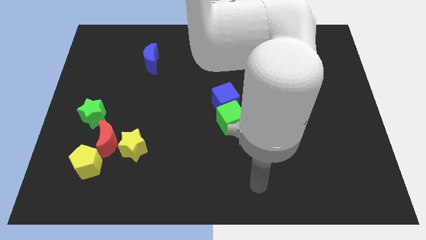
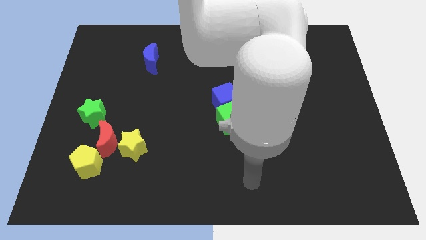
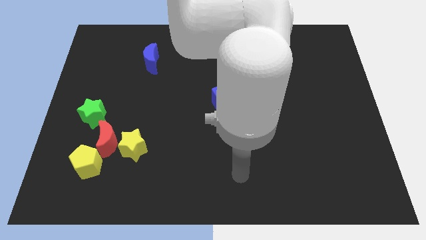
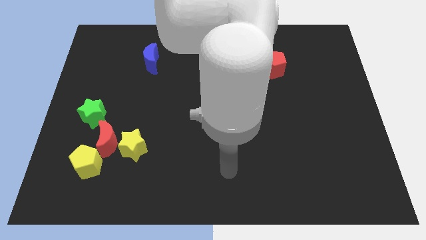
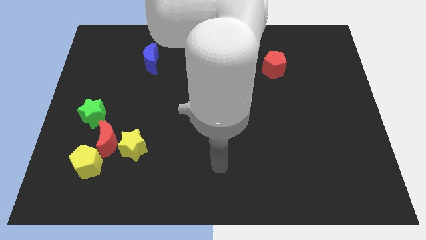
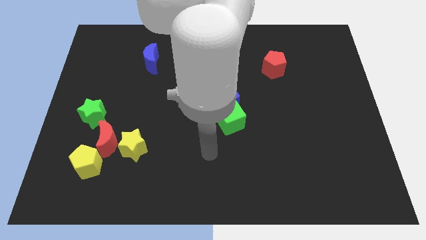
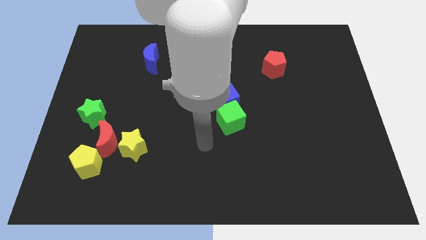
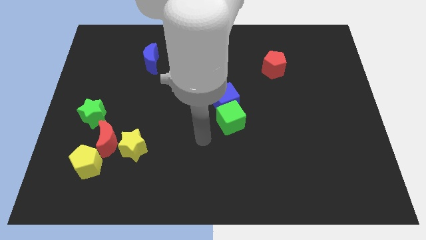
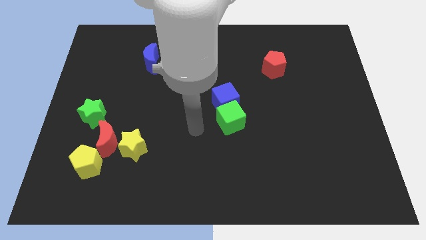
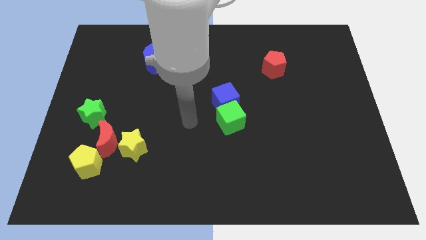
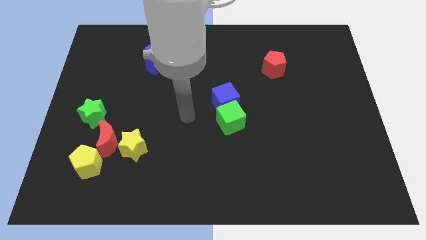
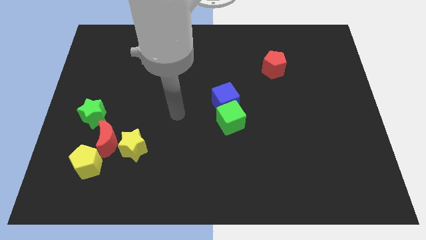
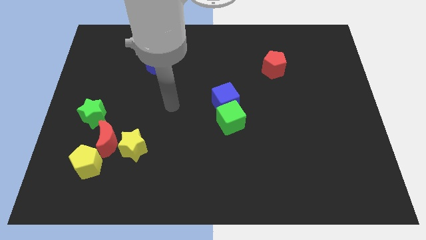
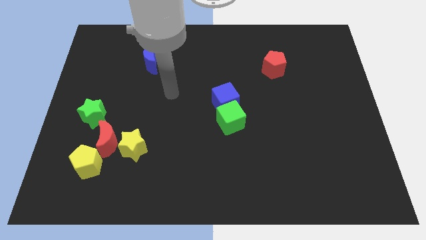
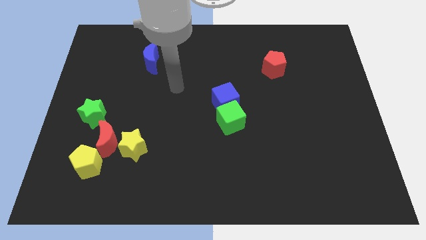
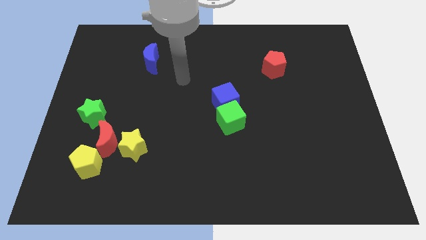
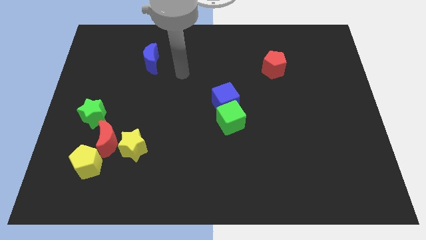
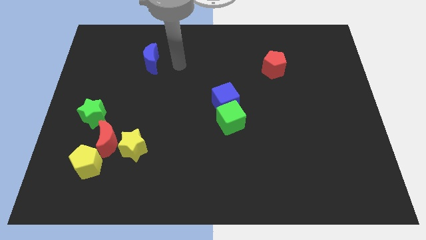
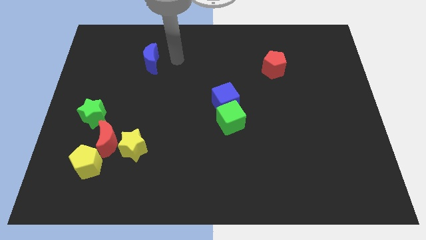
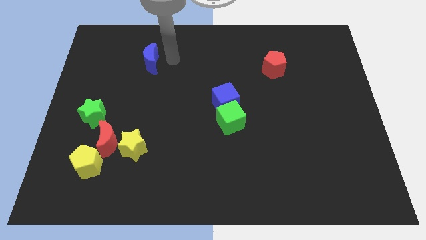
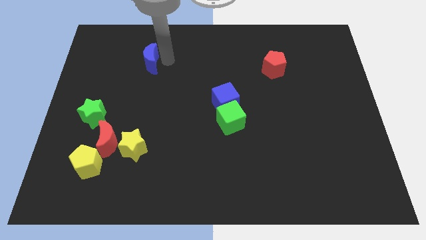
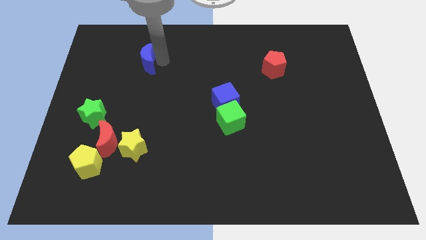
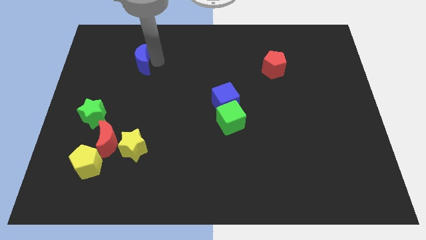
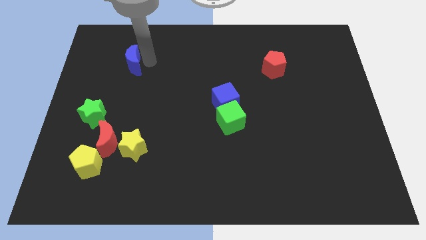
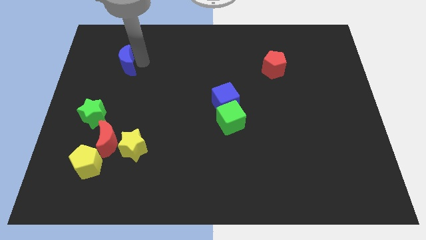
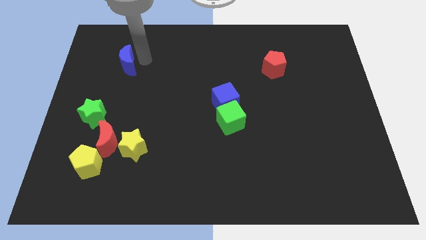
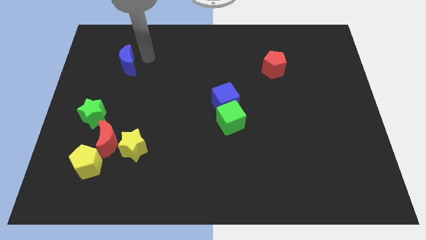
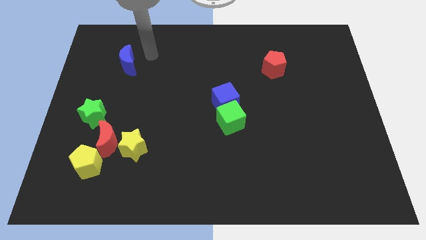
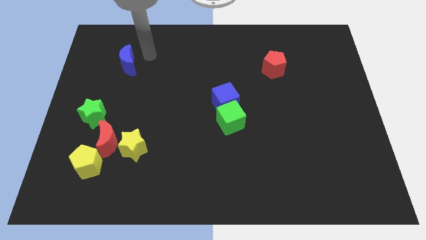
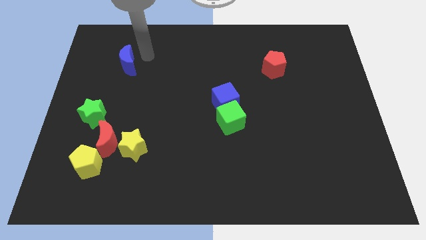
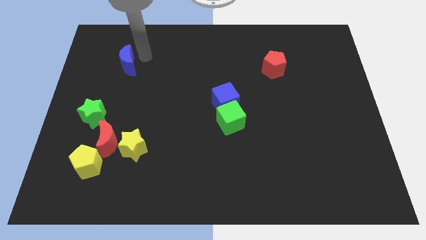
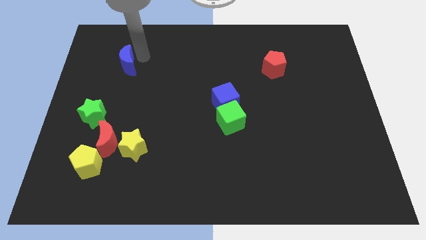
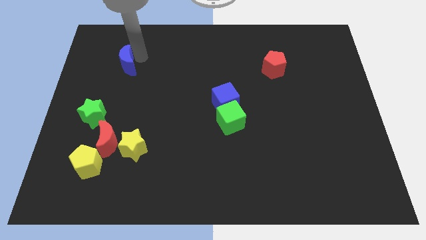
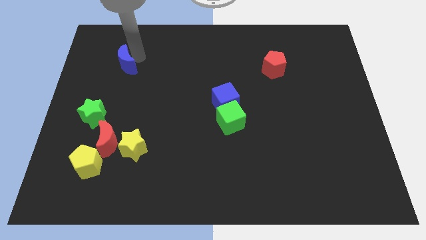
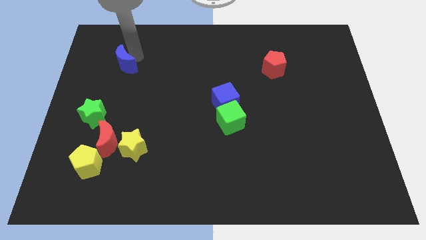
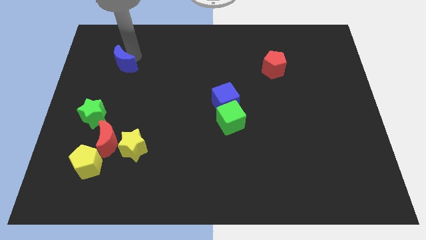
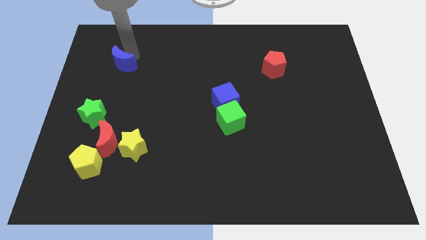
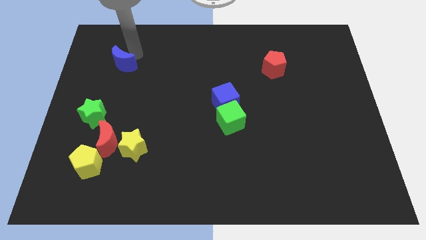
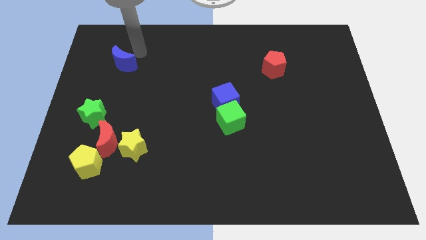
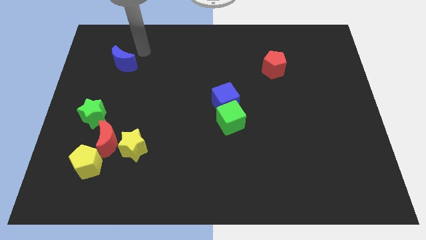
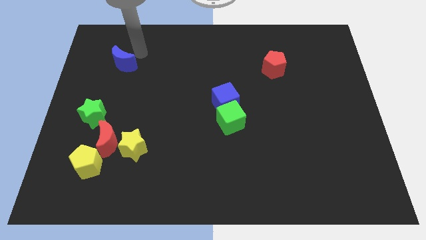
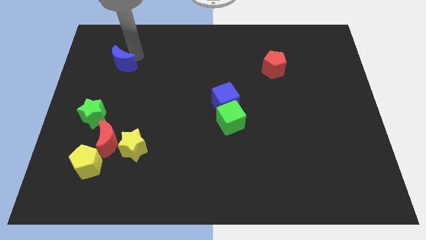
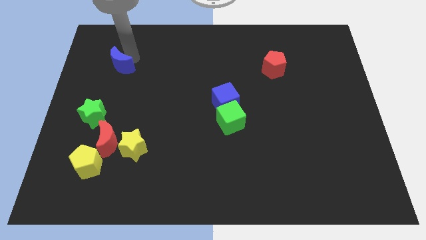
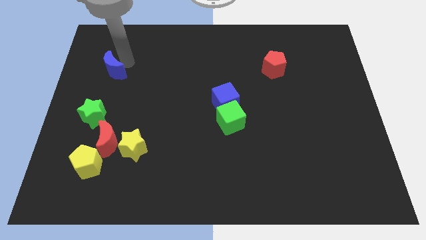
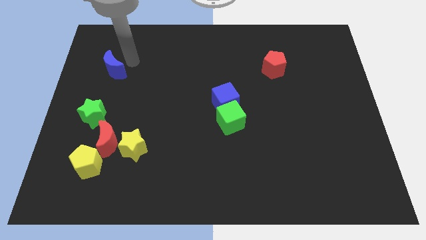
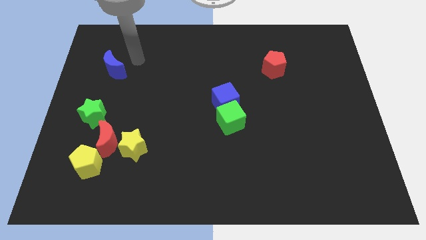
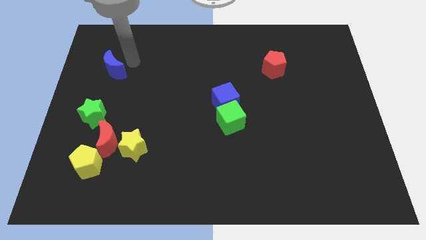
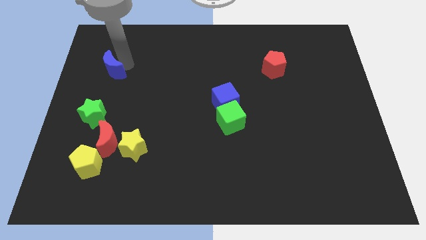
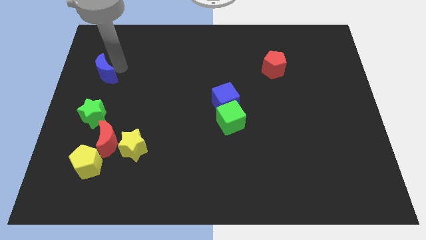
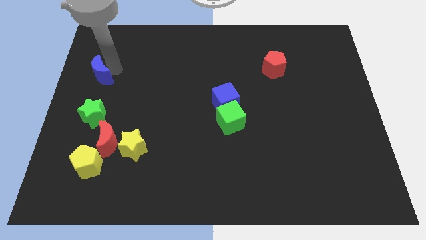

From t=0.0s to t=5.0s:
move the blue moon to the left side

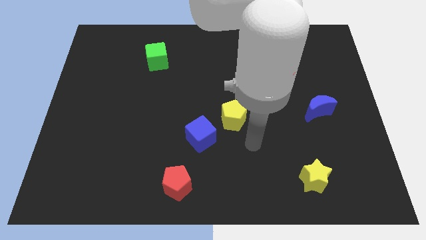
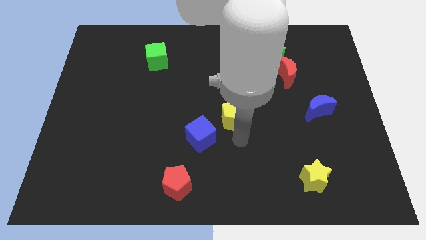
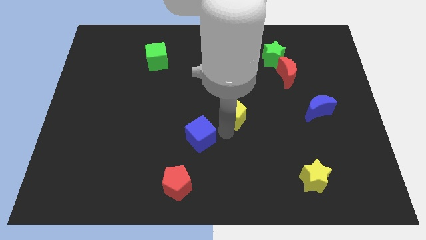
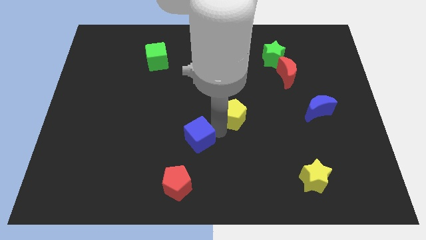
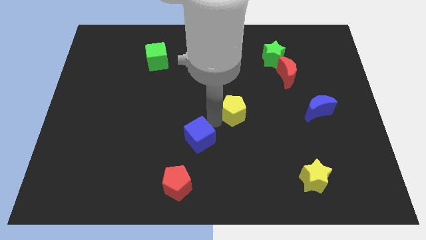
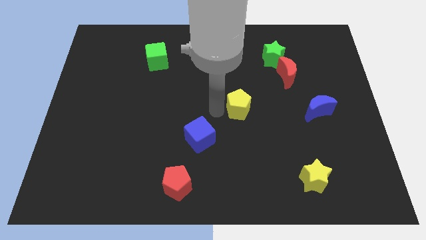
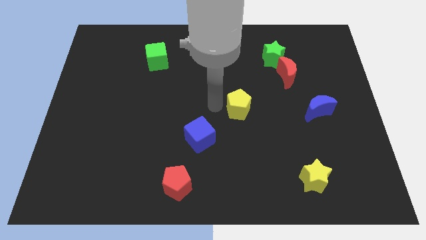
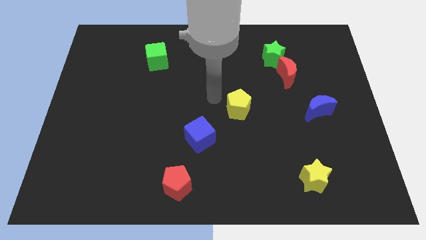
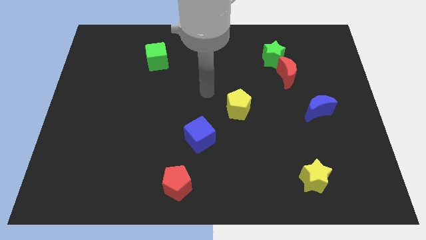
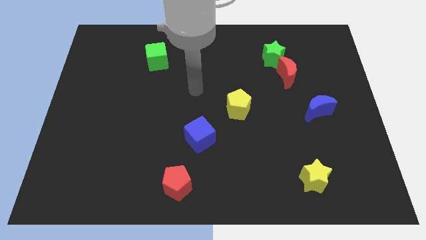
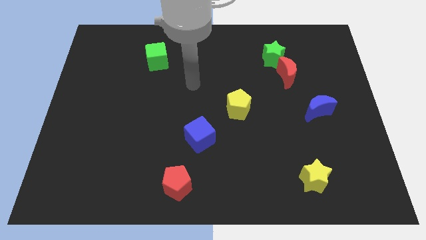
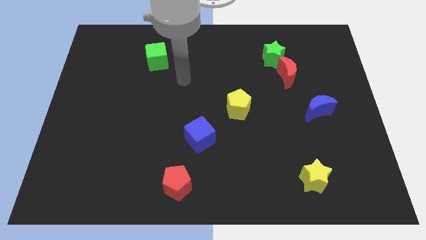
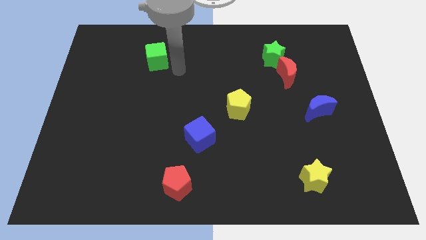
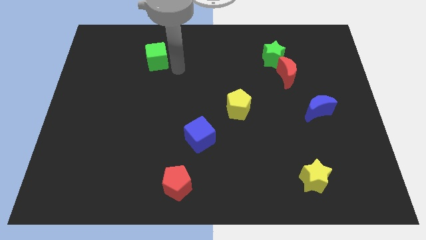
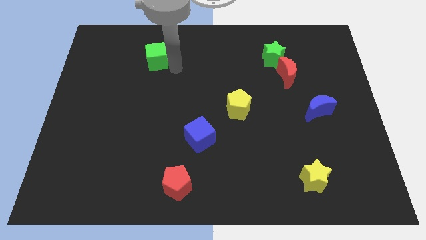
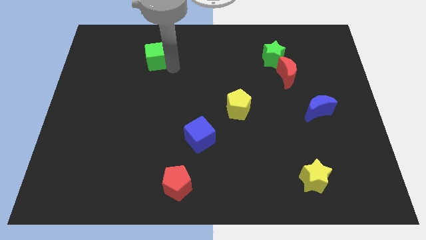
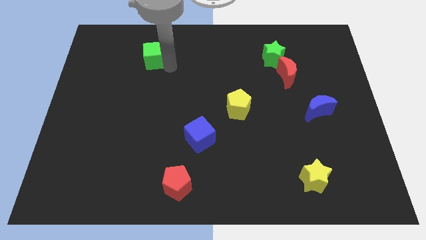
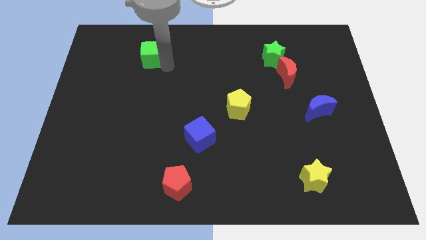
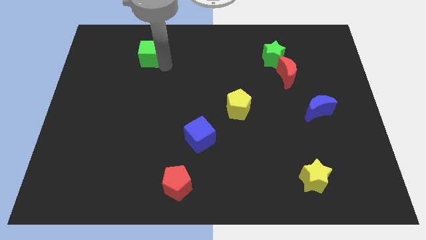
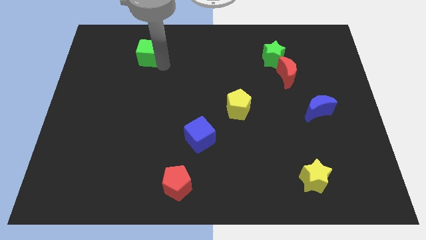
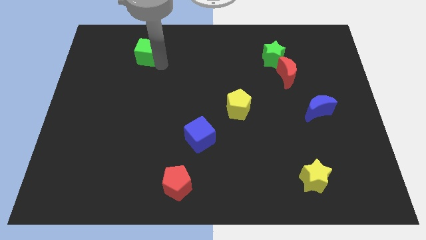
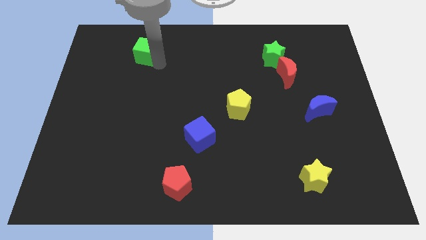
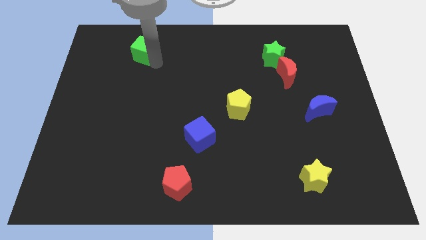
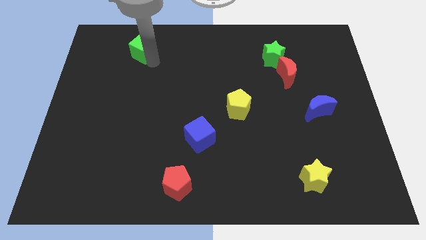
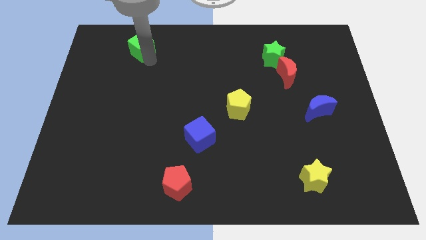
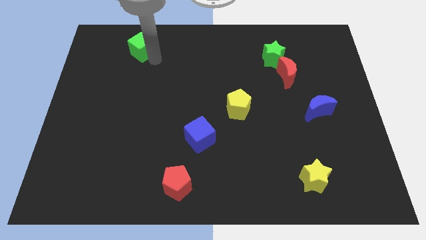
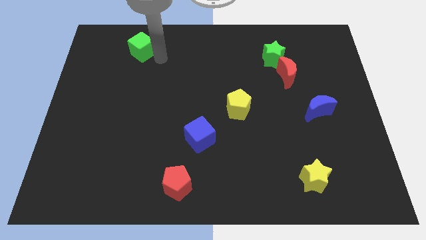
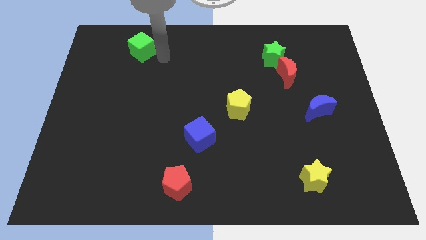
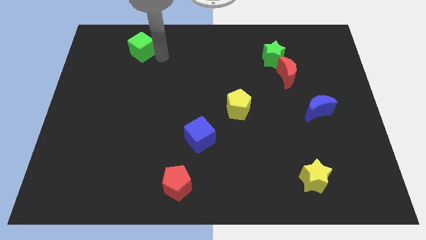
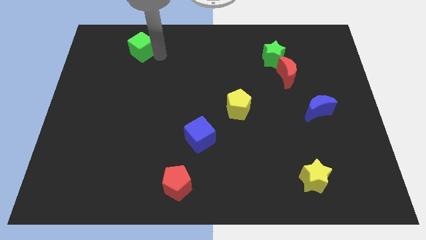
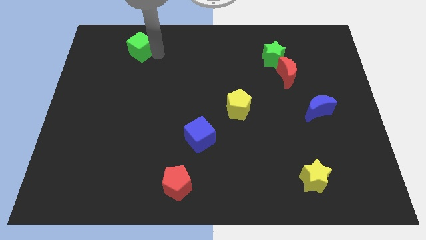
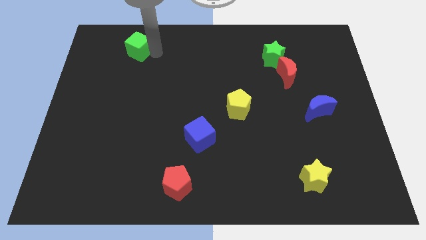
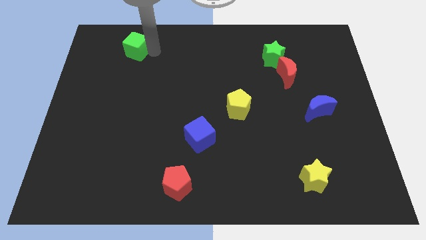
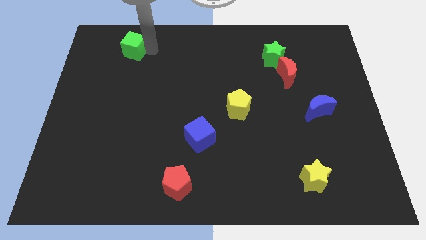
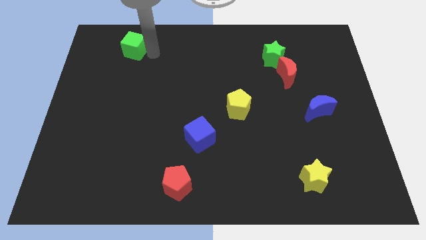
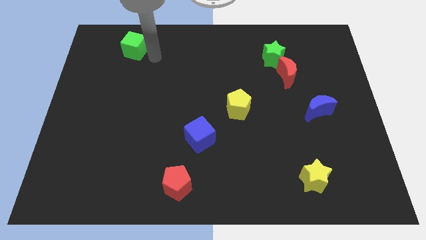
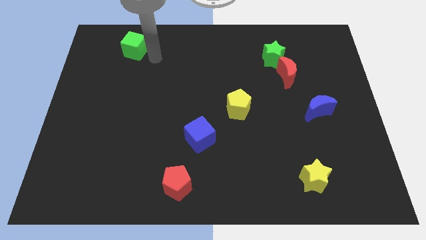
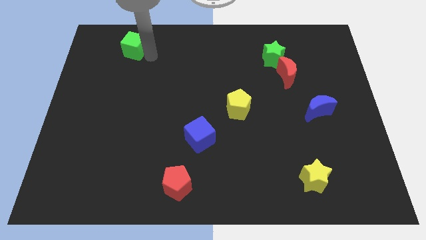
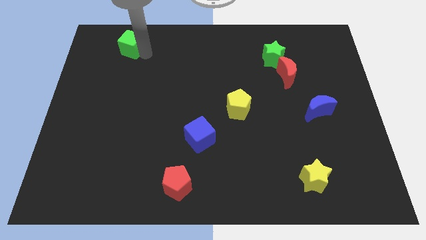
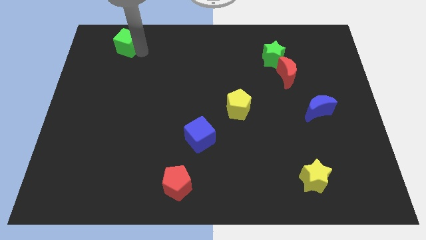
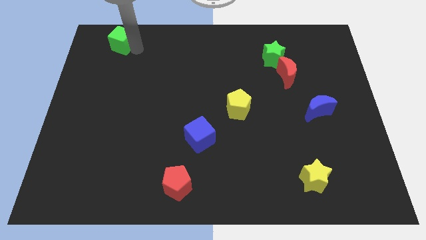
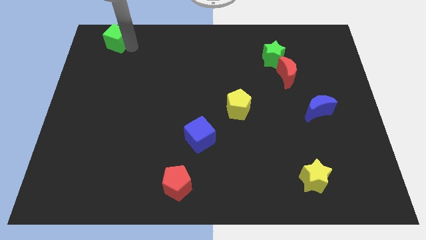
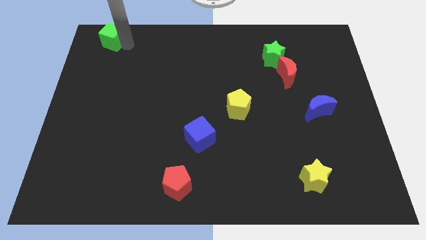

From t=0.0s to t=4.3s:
move the green cube to the top left of the board
